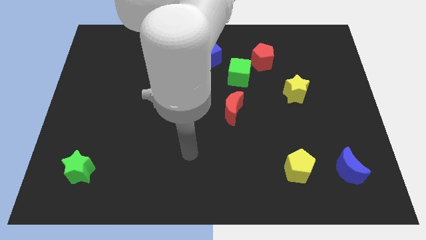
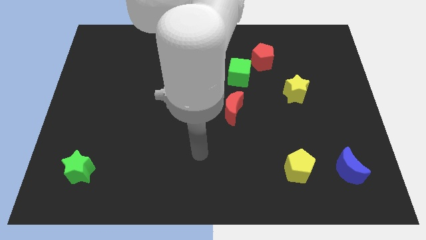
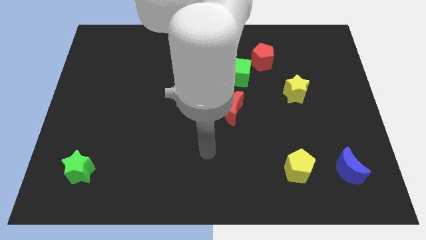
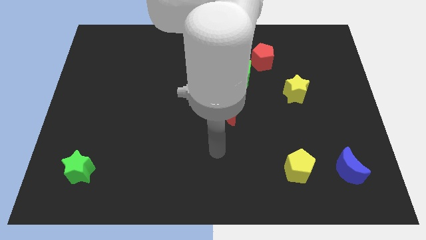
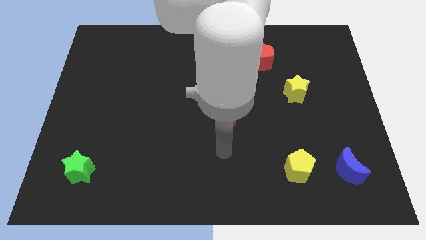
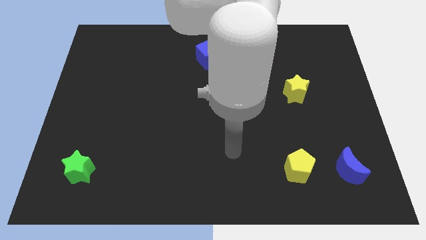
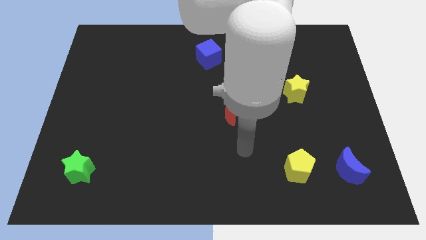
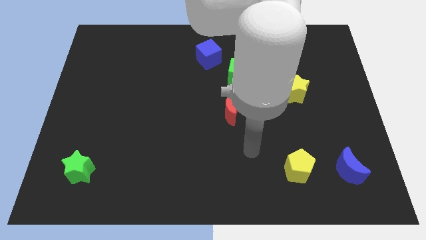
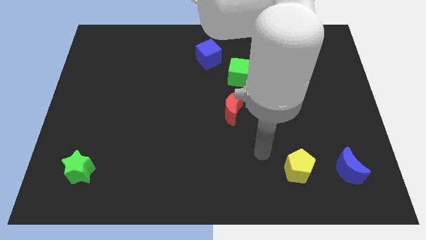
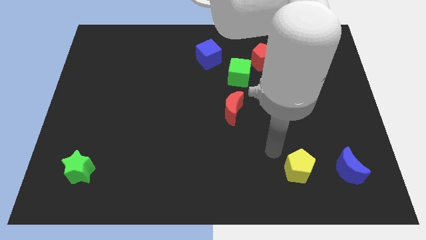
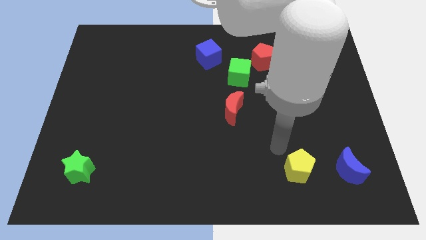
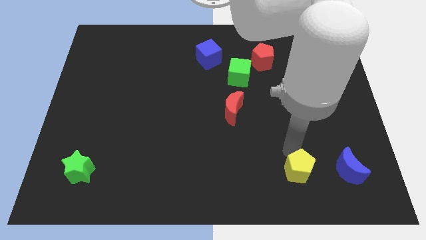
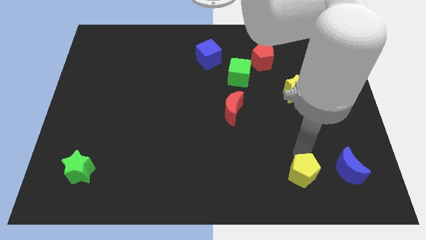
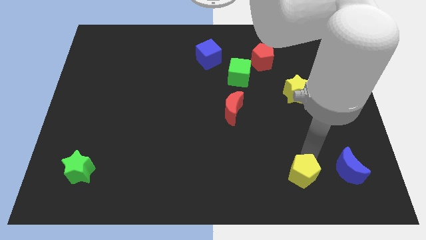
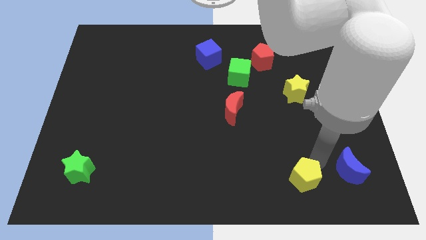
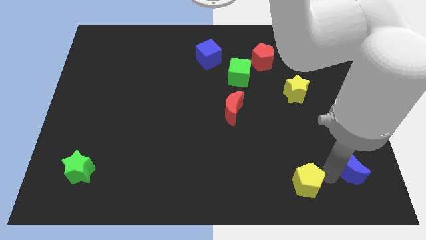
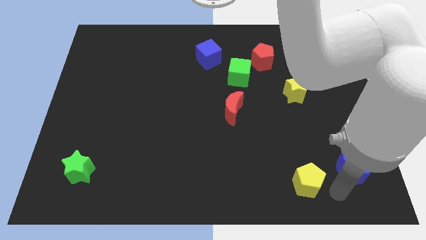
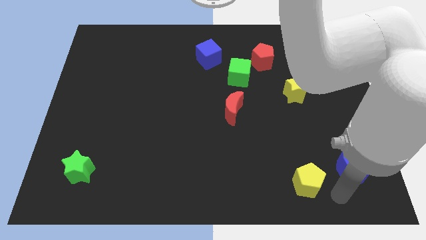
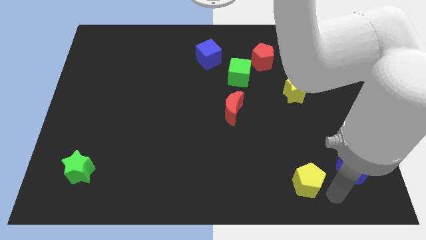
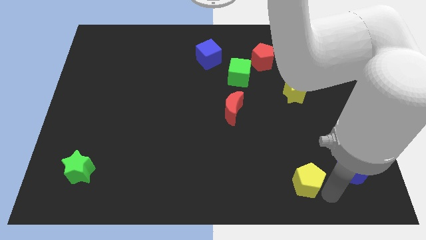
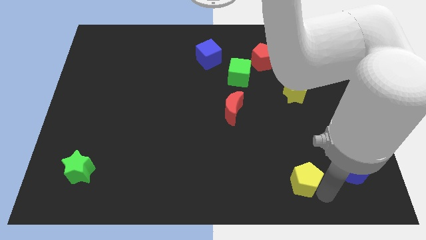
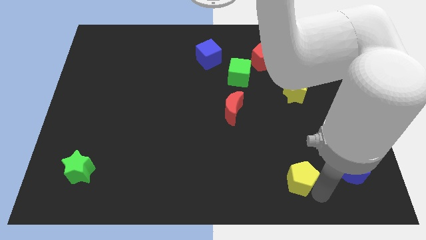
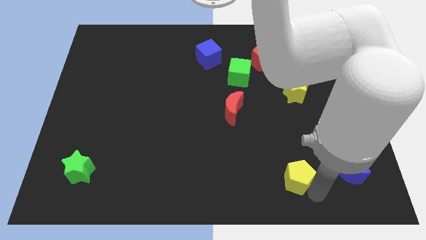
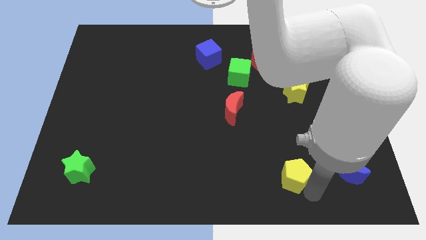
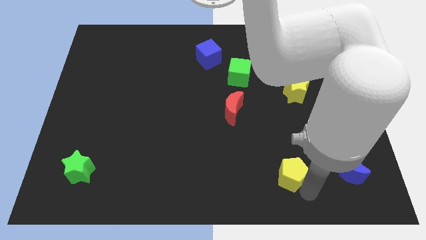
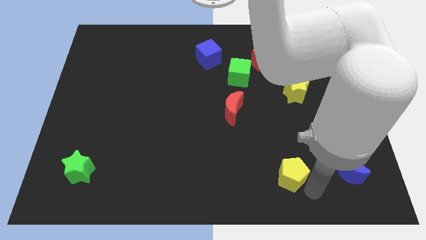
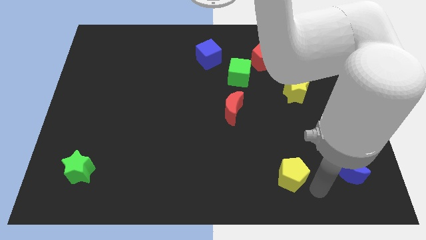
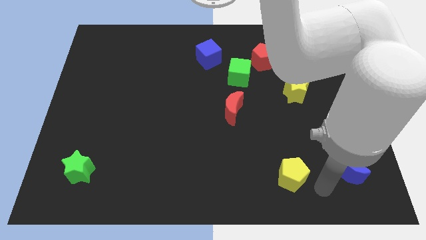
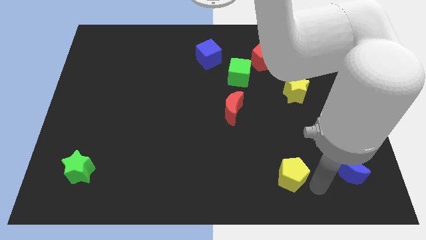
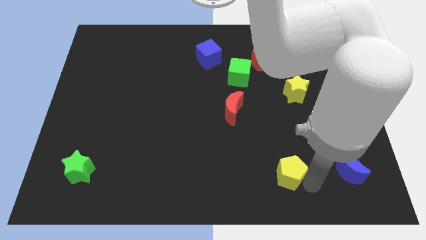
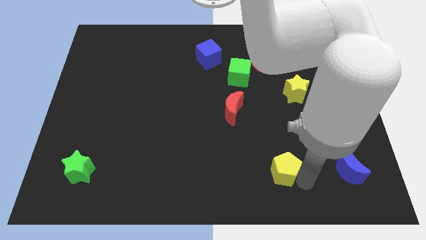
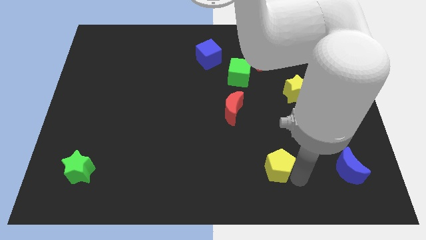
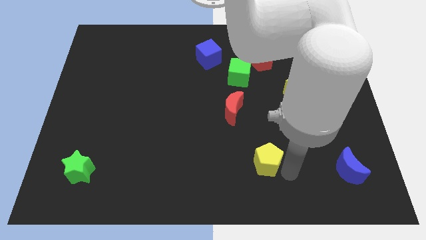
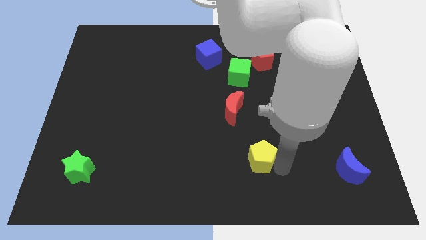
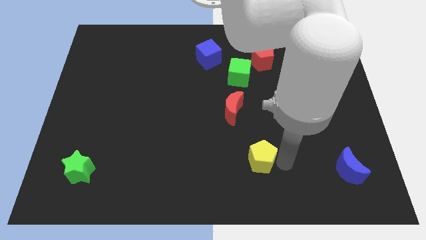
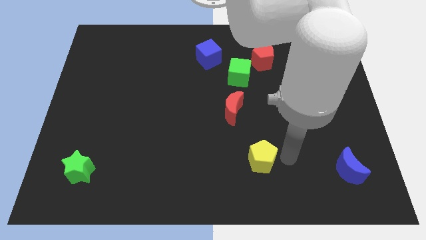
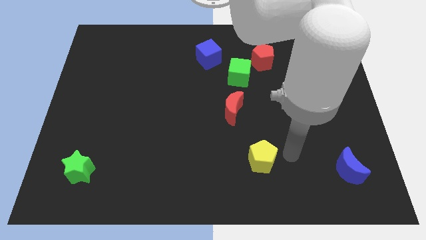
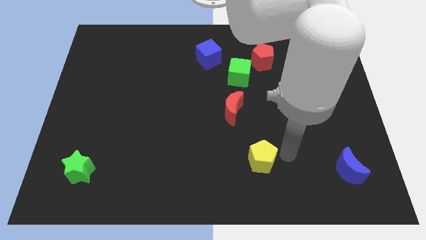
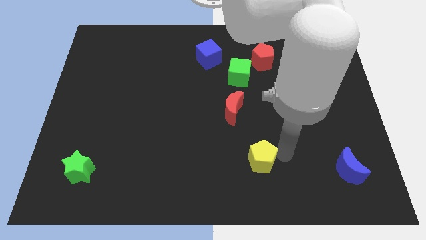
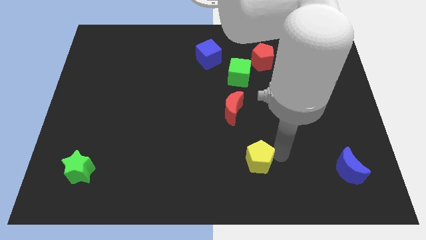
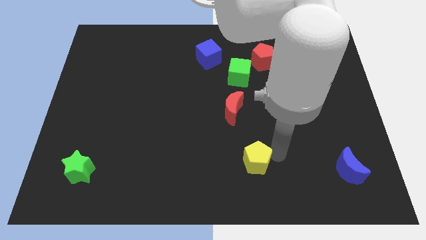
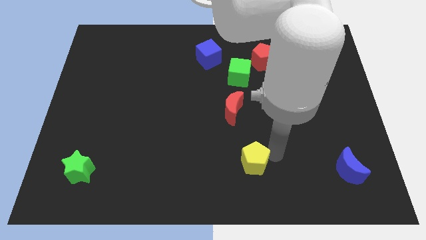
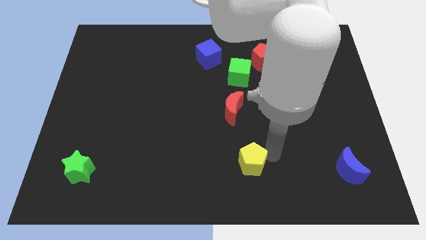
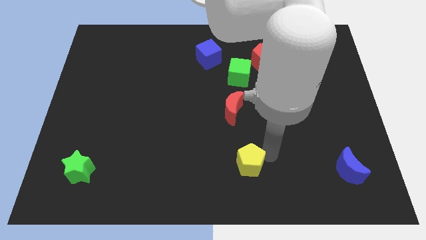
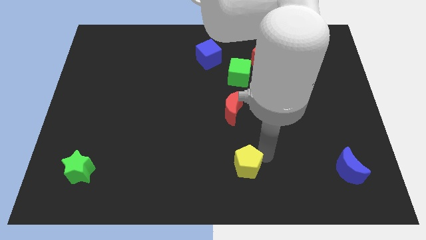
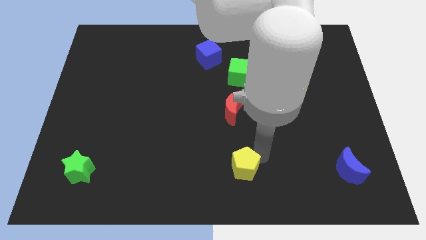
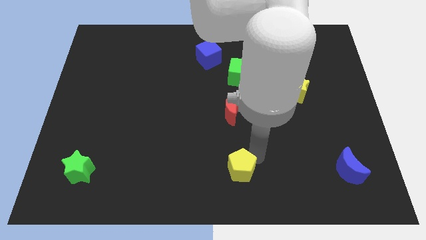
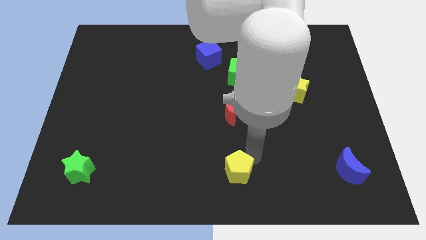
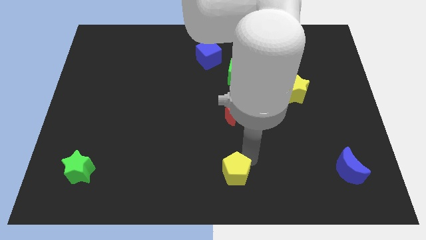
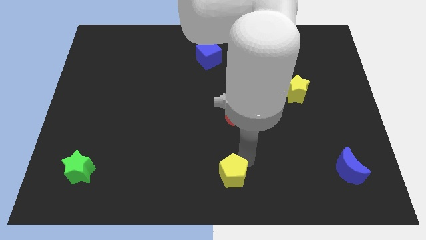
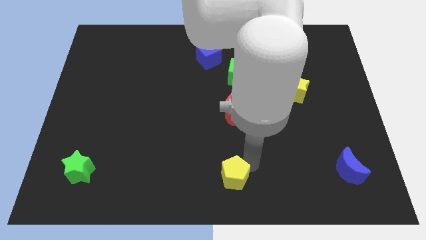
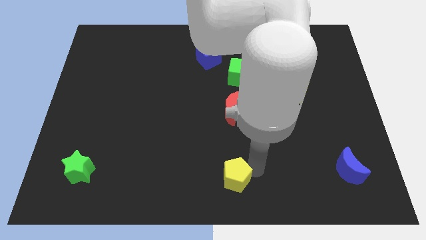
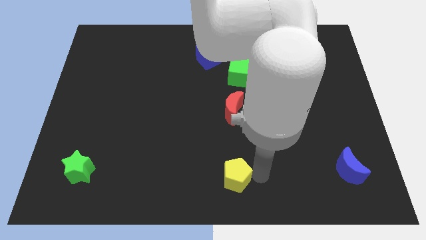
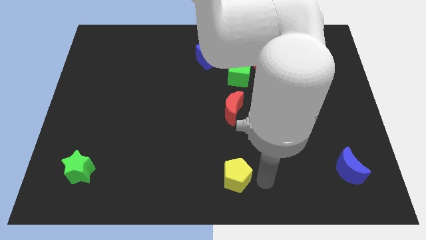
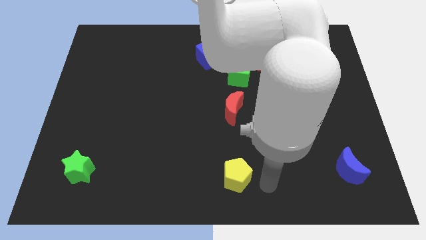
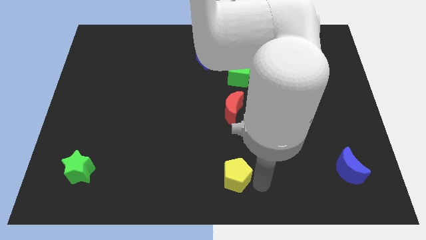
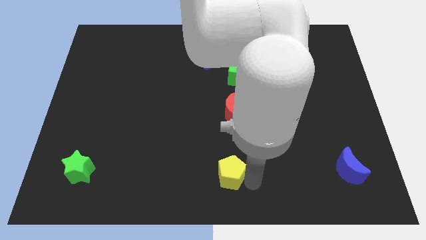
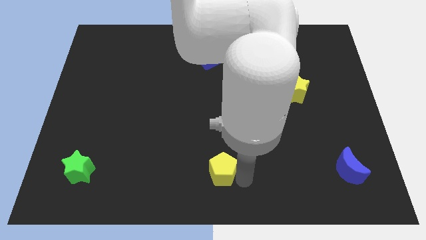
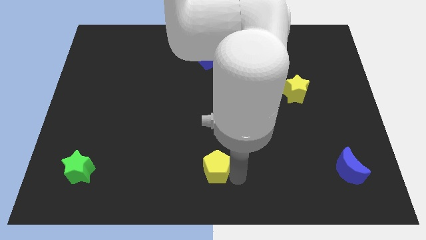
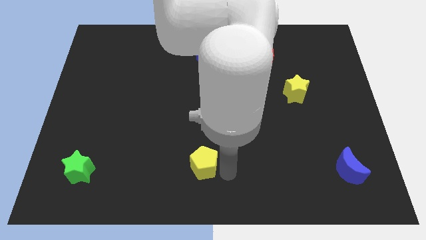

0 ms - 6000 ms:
slide the yellow pentagon left

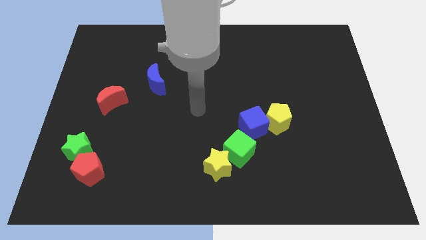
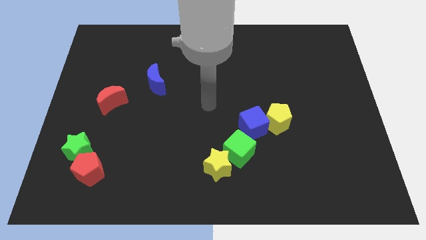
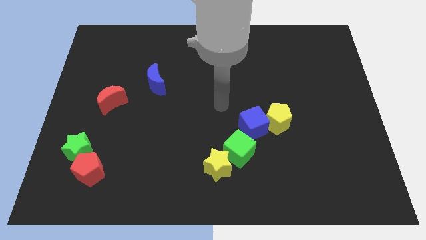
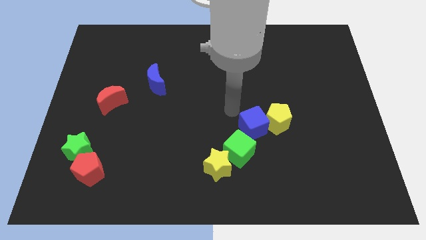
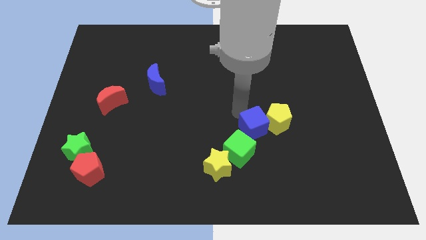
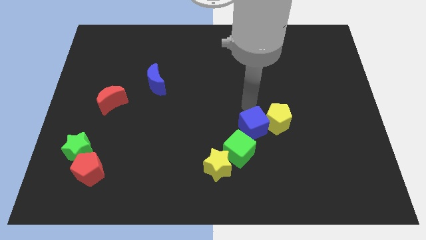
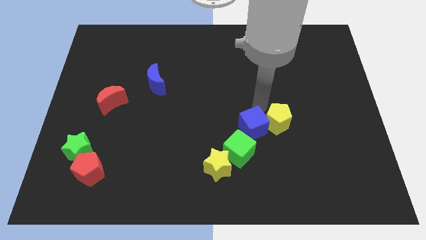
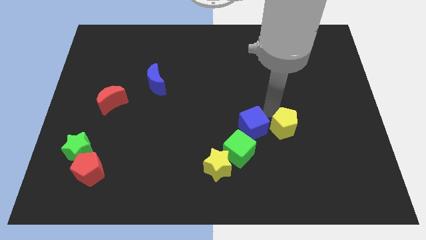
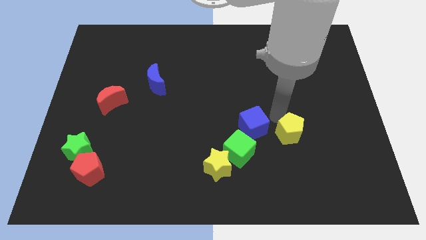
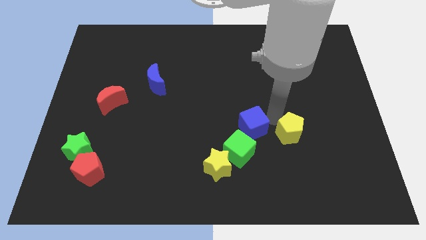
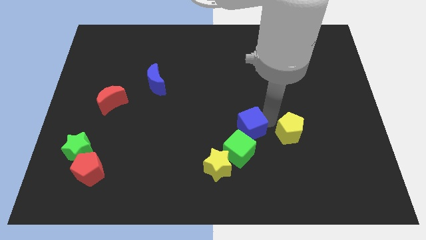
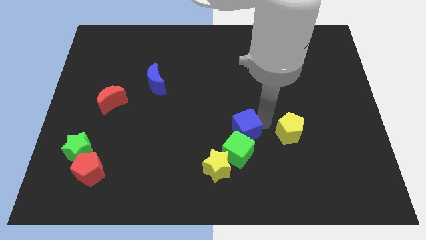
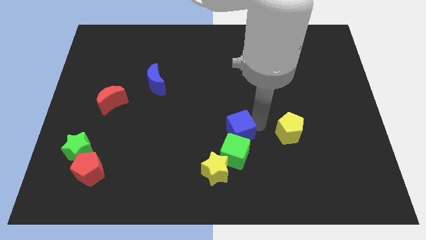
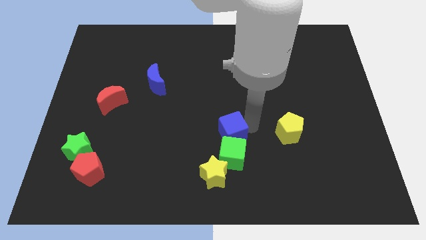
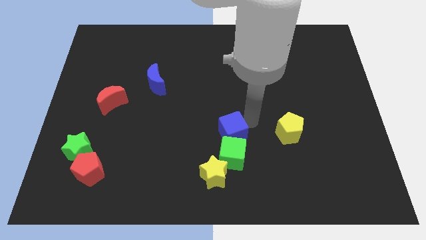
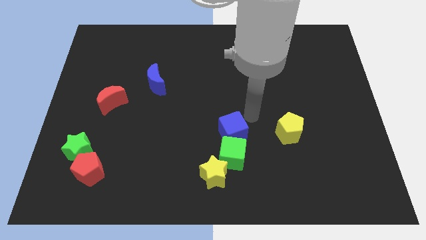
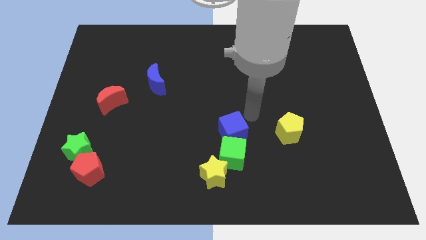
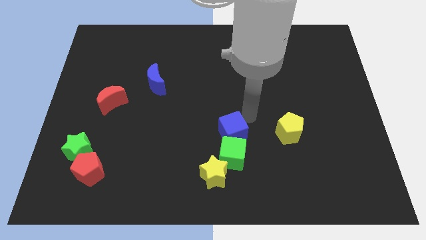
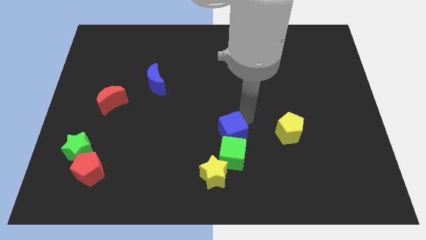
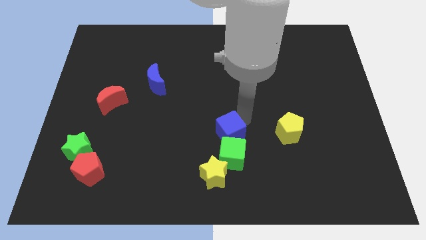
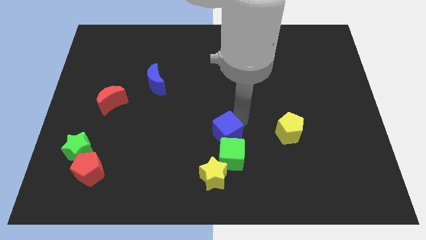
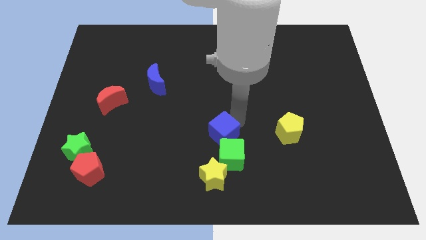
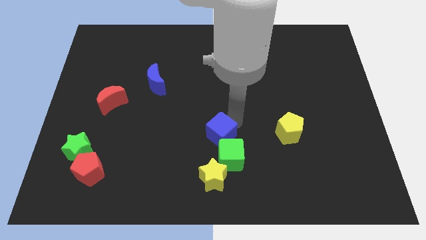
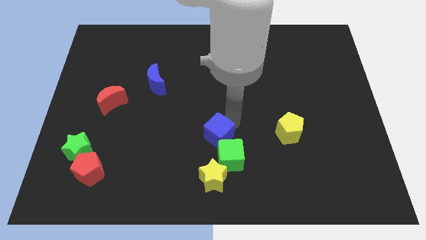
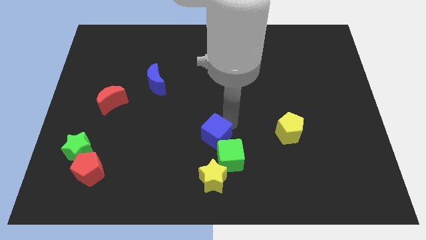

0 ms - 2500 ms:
move the blue cube down and to the left diagonally a little bit
